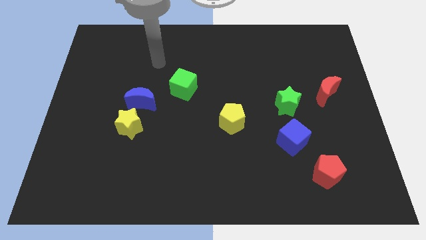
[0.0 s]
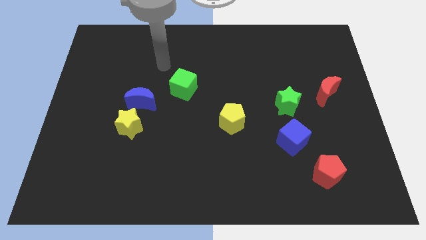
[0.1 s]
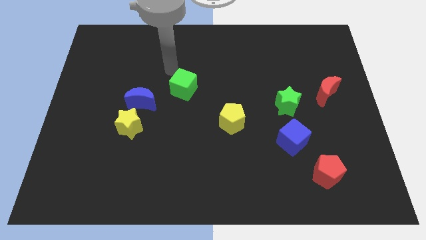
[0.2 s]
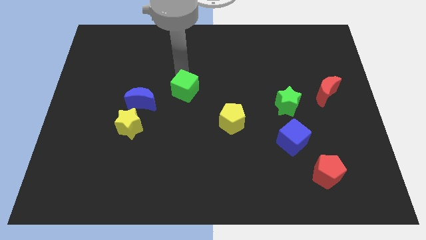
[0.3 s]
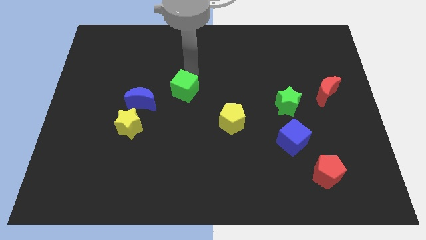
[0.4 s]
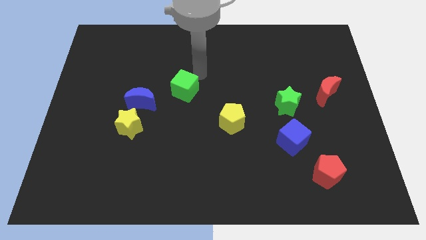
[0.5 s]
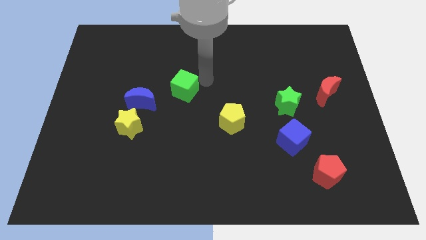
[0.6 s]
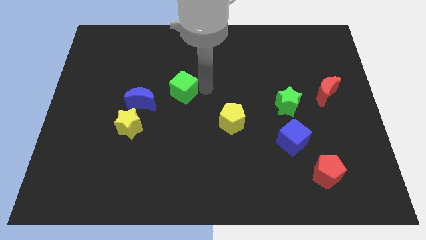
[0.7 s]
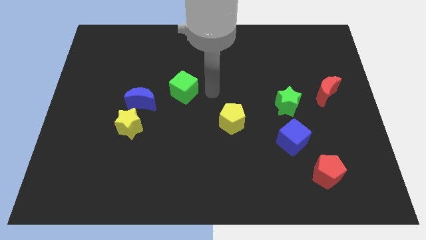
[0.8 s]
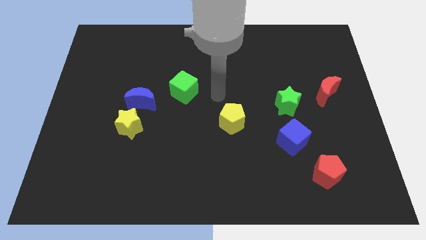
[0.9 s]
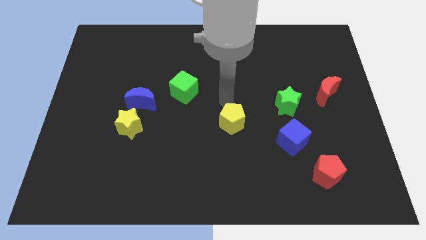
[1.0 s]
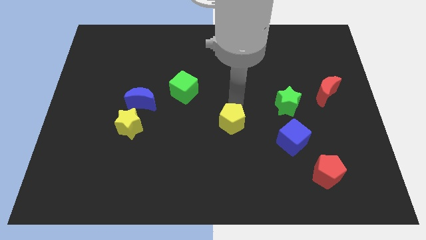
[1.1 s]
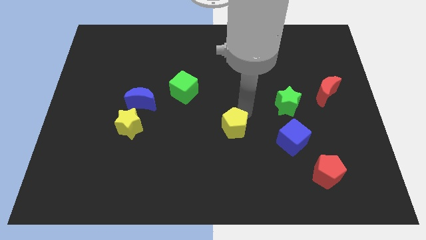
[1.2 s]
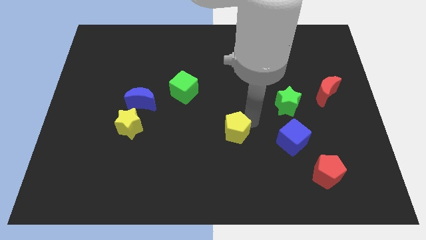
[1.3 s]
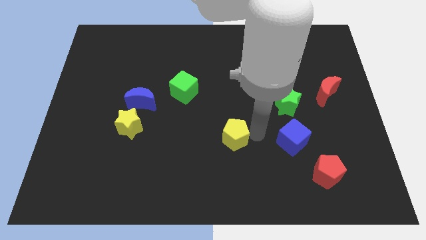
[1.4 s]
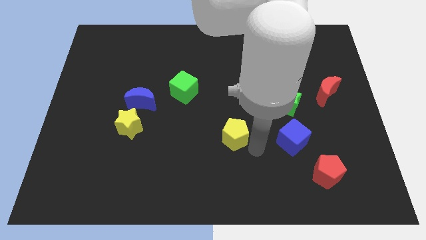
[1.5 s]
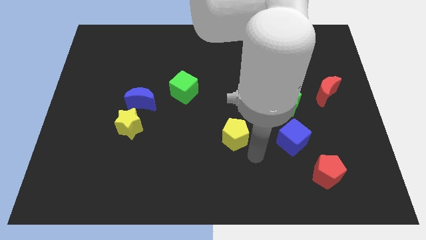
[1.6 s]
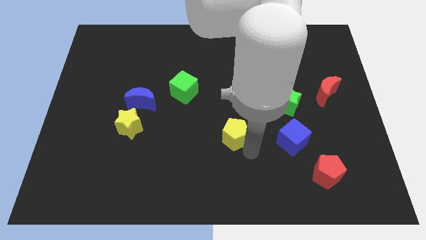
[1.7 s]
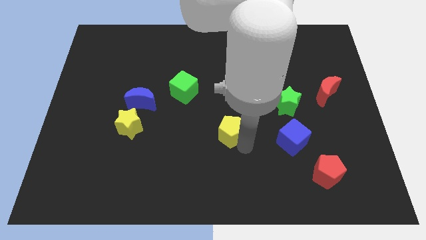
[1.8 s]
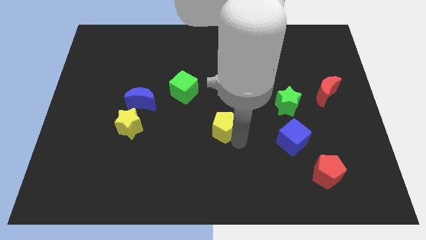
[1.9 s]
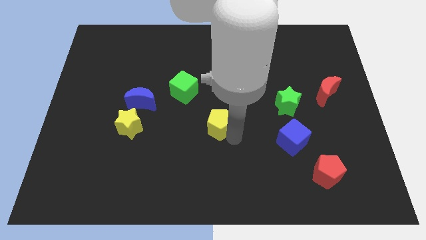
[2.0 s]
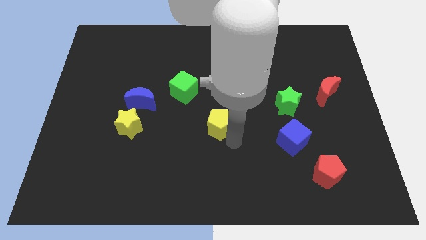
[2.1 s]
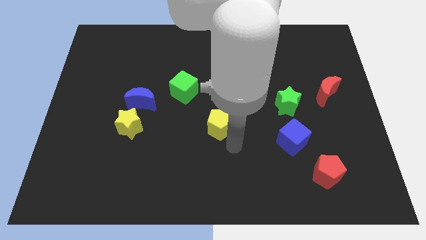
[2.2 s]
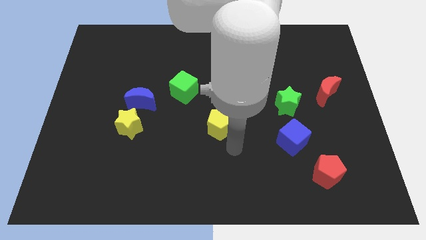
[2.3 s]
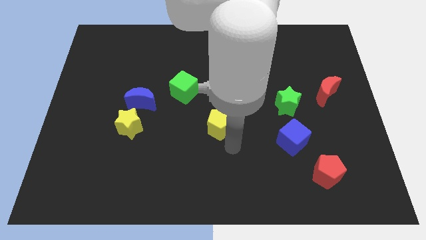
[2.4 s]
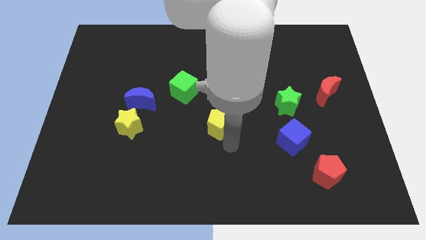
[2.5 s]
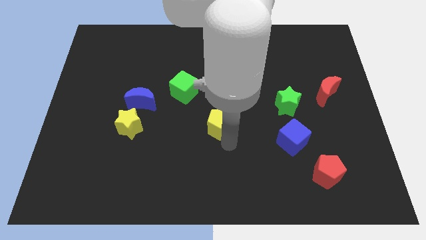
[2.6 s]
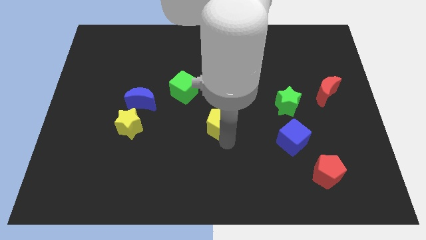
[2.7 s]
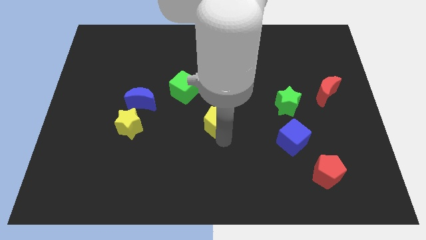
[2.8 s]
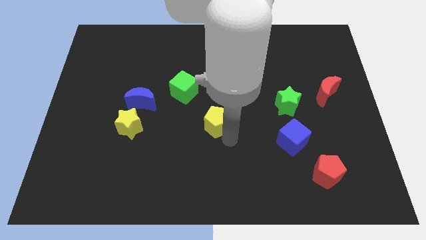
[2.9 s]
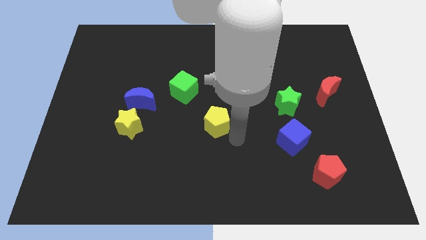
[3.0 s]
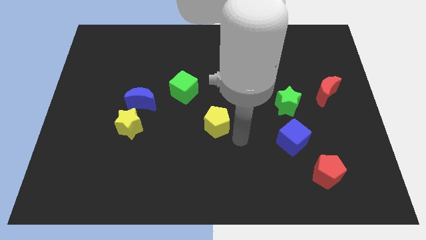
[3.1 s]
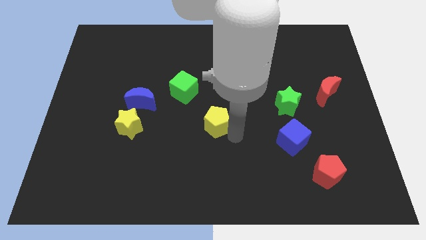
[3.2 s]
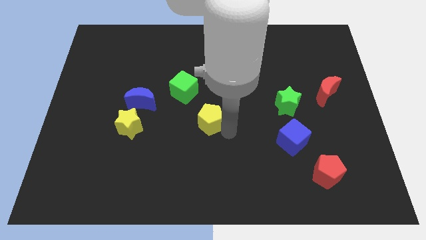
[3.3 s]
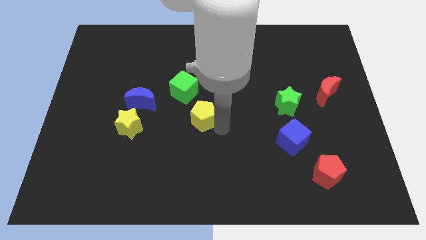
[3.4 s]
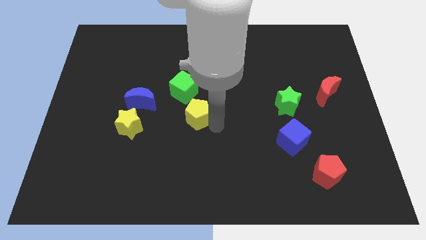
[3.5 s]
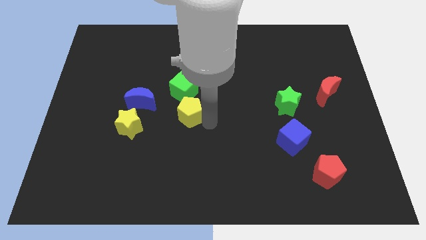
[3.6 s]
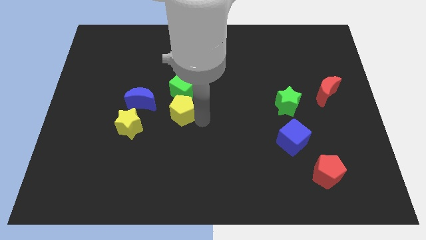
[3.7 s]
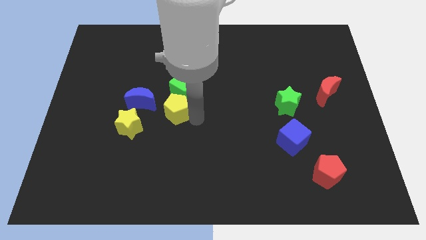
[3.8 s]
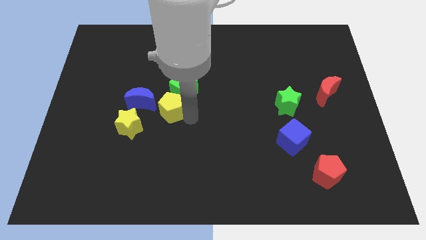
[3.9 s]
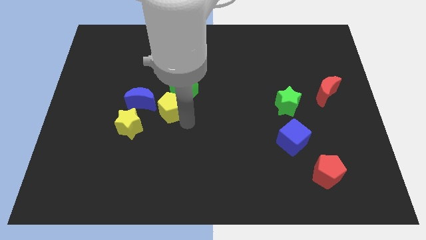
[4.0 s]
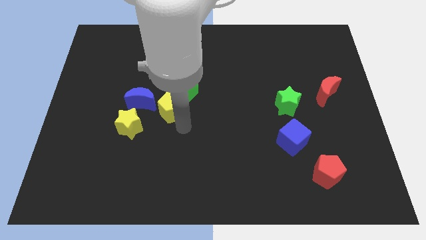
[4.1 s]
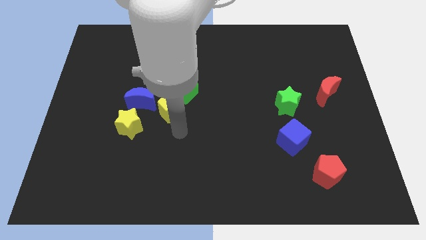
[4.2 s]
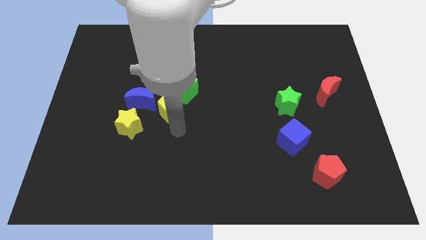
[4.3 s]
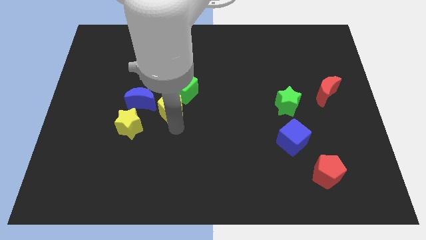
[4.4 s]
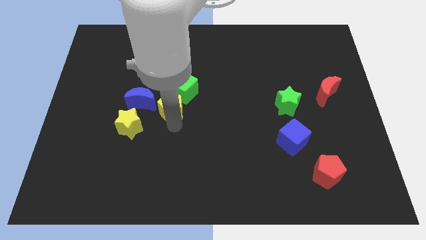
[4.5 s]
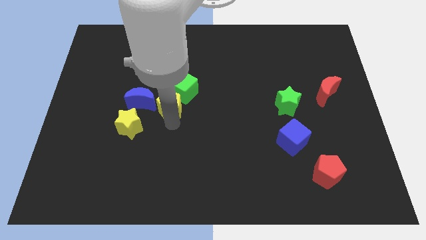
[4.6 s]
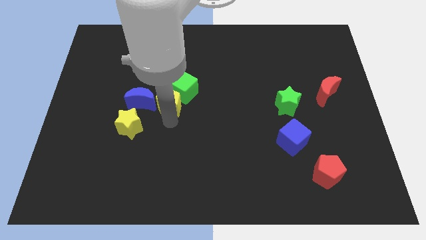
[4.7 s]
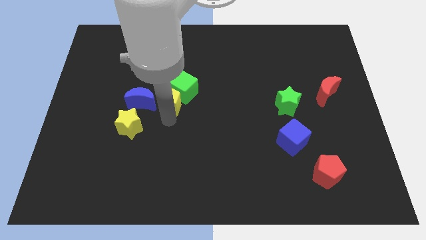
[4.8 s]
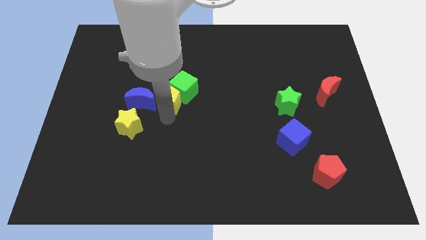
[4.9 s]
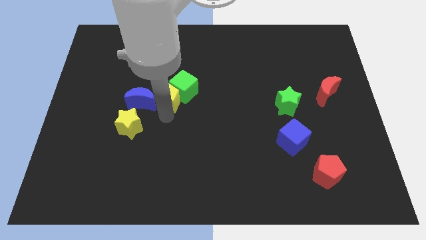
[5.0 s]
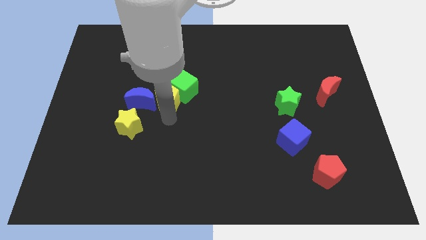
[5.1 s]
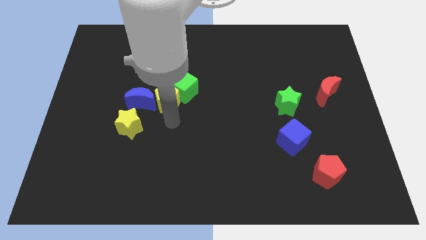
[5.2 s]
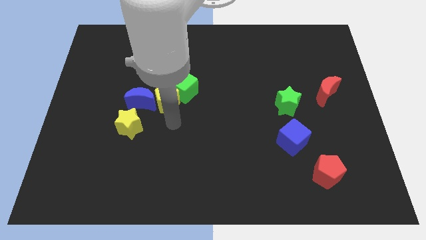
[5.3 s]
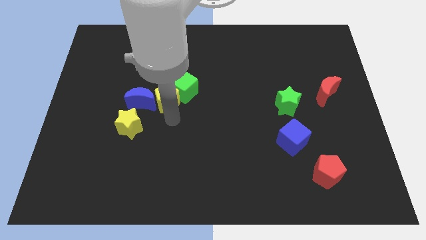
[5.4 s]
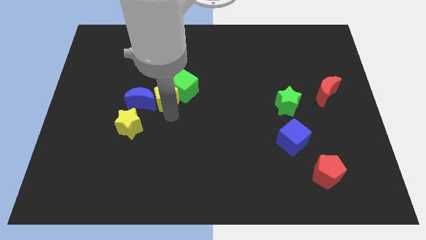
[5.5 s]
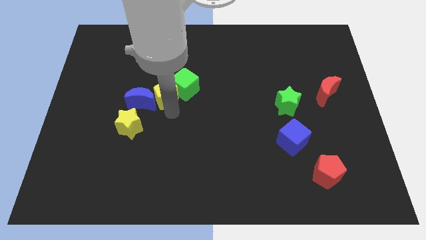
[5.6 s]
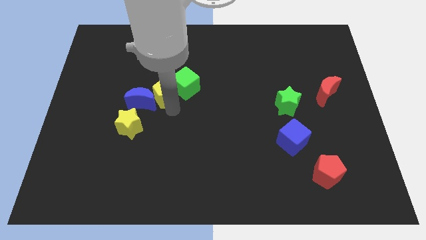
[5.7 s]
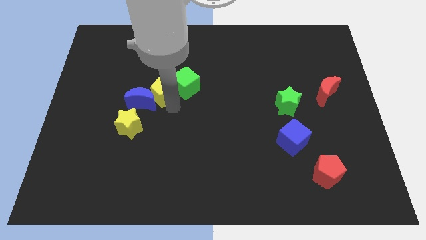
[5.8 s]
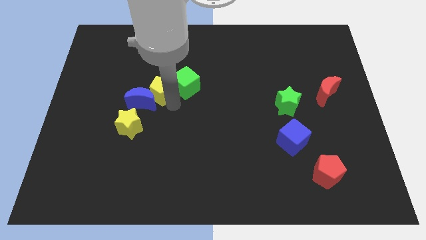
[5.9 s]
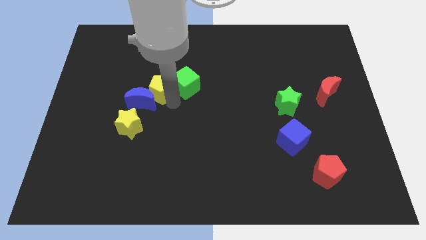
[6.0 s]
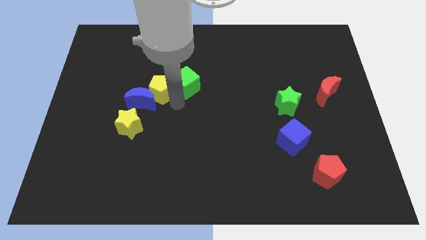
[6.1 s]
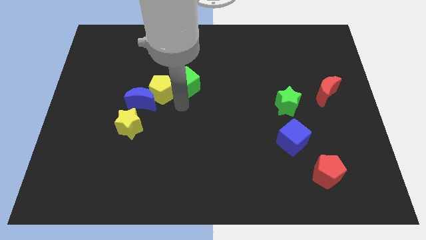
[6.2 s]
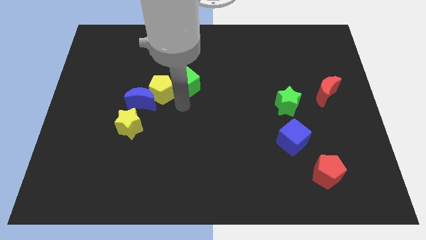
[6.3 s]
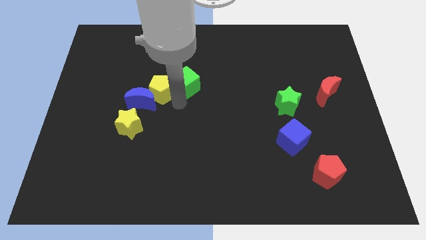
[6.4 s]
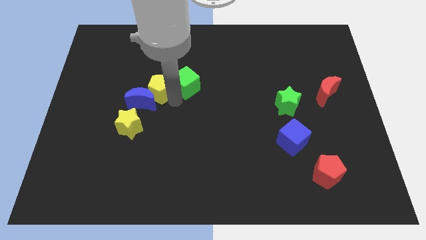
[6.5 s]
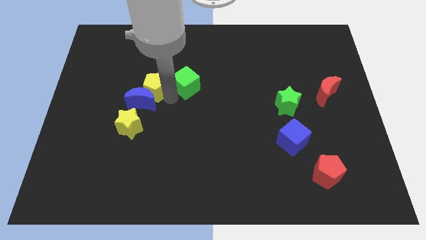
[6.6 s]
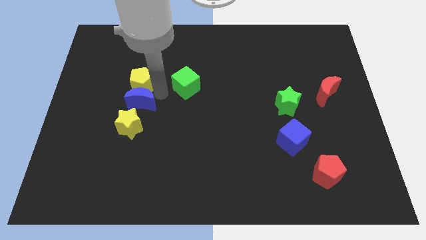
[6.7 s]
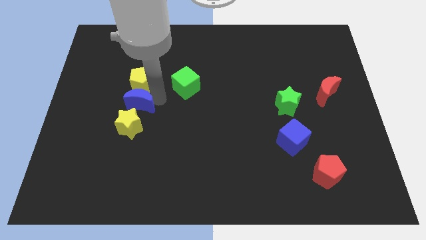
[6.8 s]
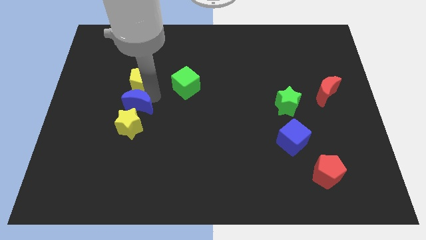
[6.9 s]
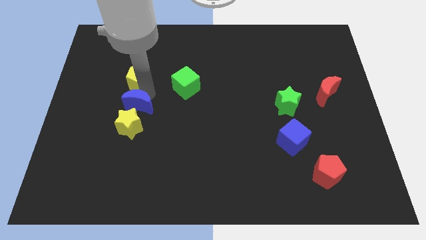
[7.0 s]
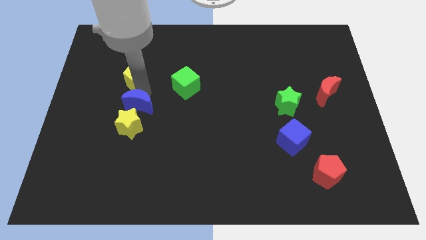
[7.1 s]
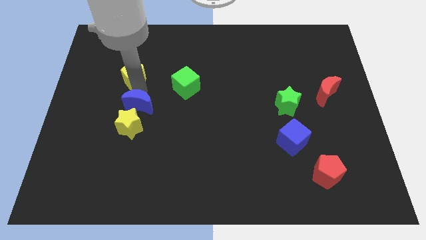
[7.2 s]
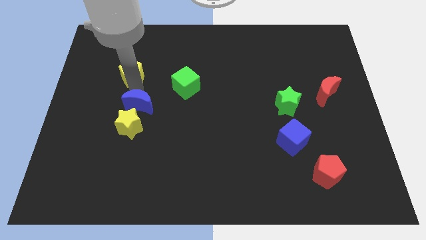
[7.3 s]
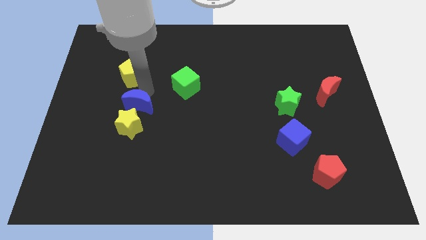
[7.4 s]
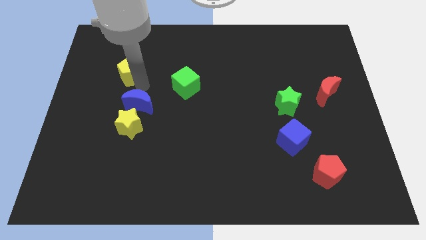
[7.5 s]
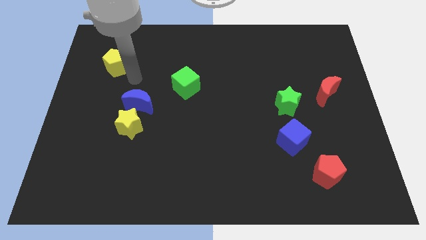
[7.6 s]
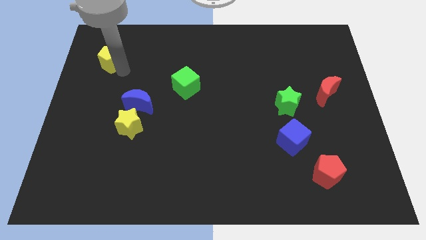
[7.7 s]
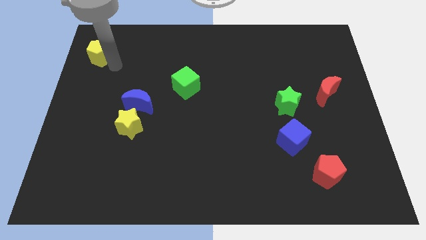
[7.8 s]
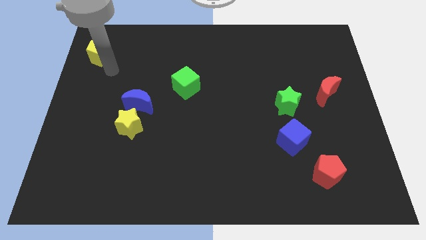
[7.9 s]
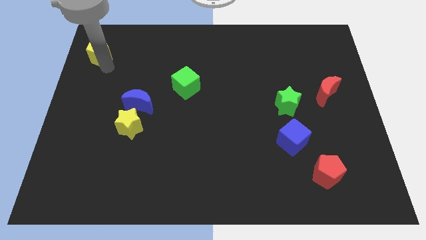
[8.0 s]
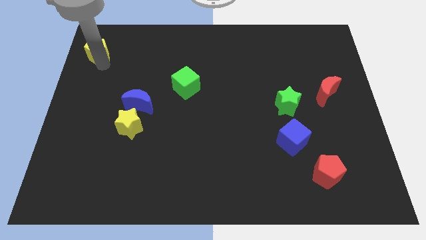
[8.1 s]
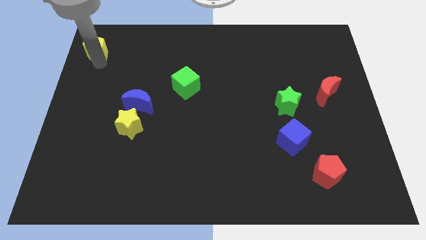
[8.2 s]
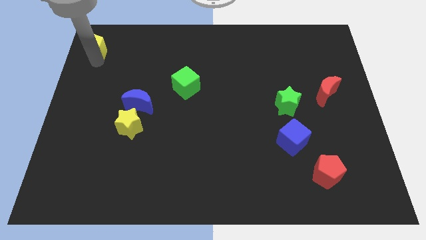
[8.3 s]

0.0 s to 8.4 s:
put the yellow pentagon to the upper left corner
